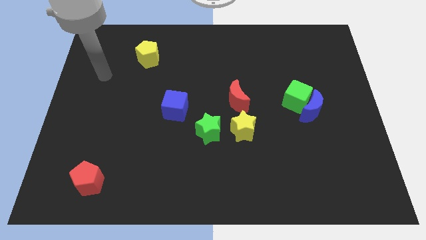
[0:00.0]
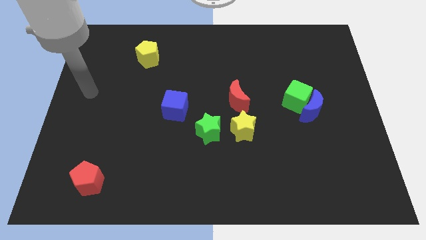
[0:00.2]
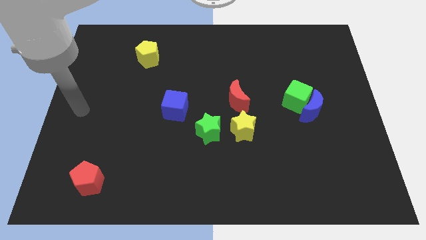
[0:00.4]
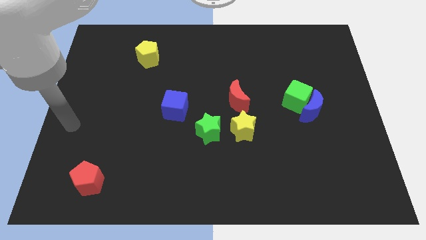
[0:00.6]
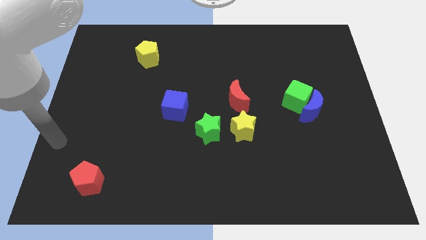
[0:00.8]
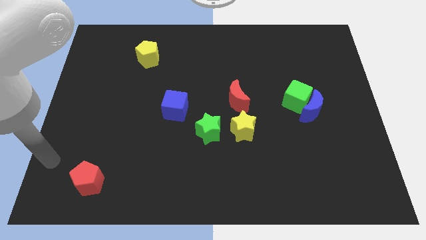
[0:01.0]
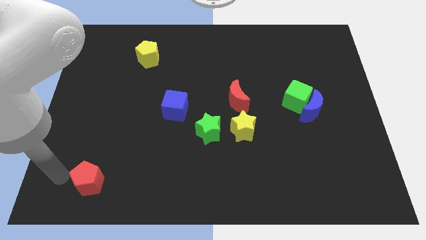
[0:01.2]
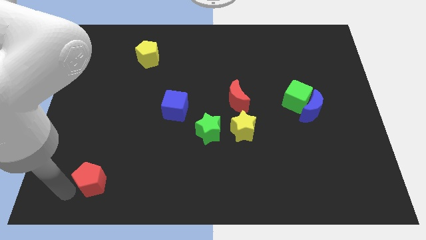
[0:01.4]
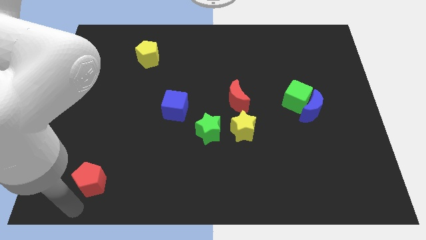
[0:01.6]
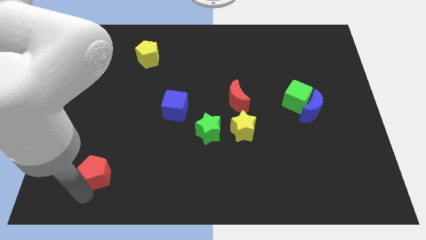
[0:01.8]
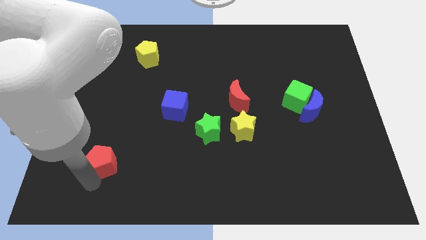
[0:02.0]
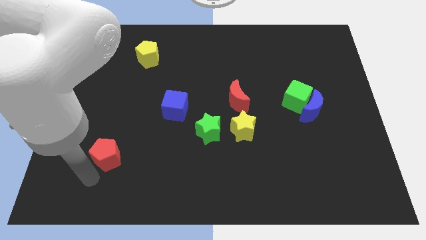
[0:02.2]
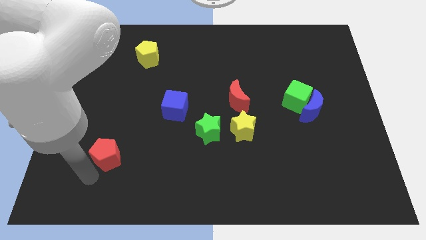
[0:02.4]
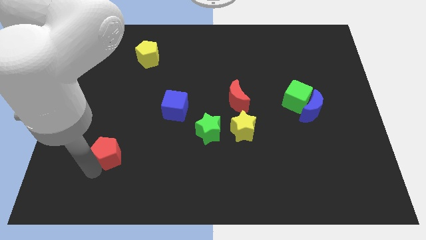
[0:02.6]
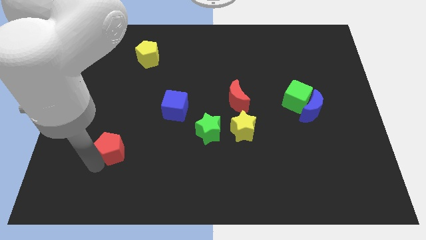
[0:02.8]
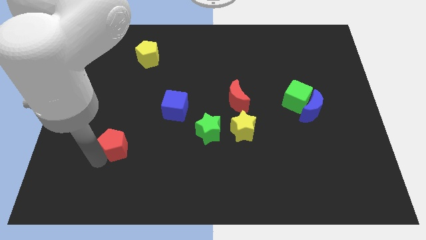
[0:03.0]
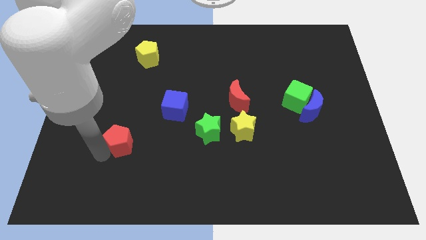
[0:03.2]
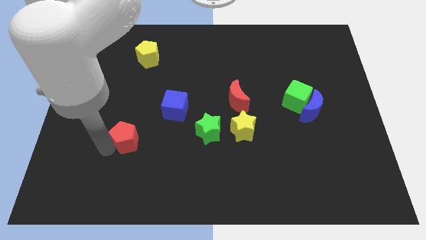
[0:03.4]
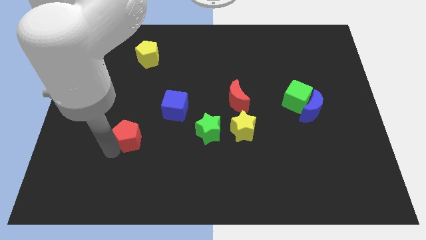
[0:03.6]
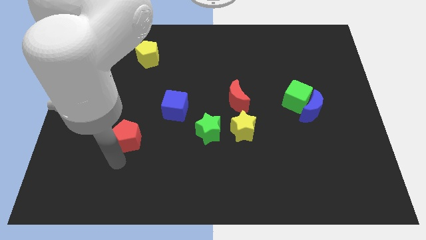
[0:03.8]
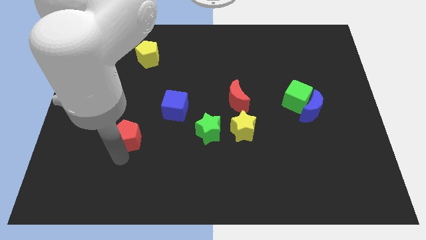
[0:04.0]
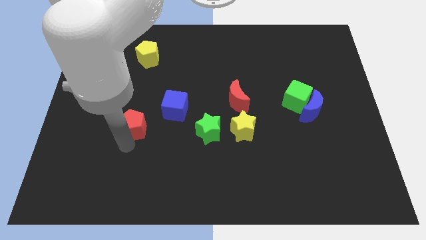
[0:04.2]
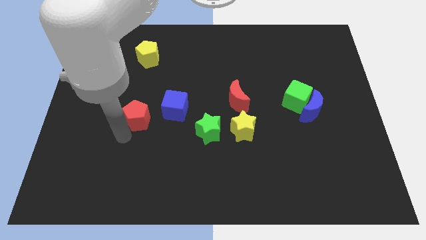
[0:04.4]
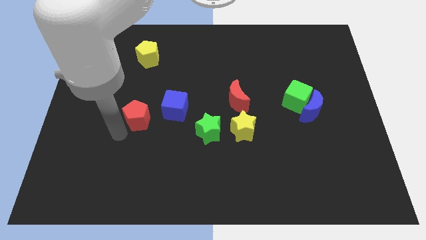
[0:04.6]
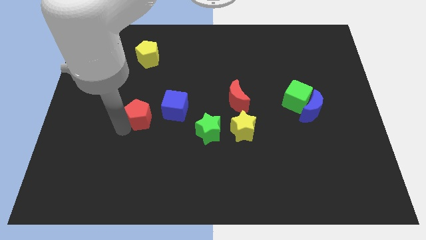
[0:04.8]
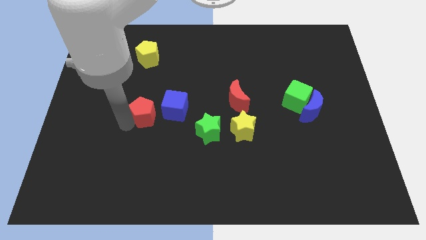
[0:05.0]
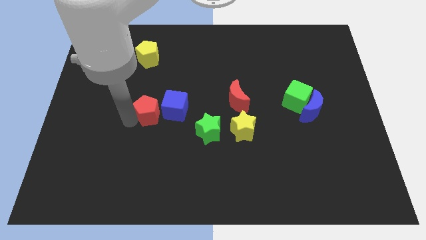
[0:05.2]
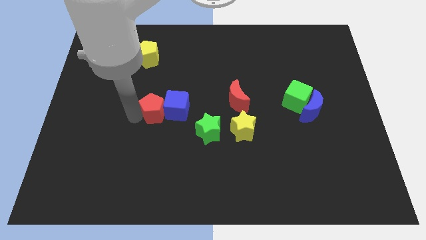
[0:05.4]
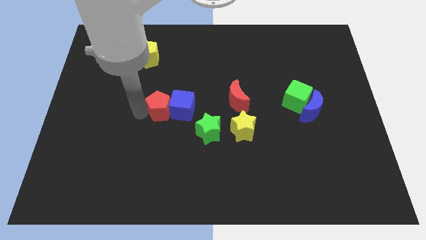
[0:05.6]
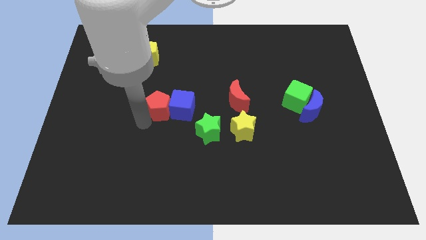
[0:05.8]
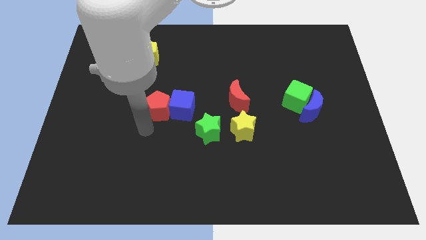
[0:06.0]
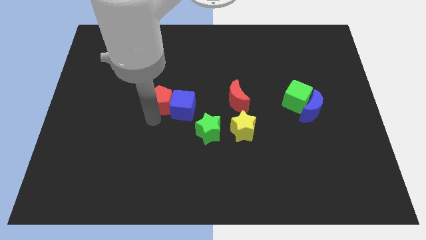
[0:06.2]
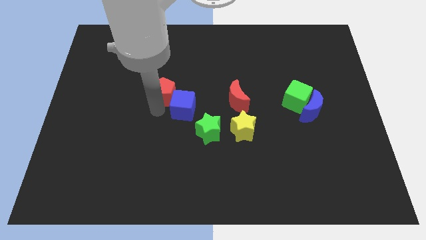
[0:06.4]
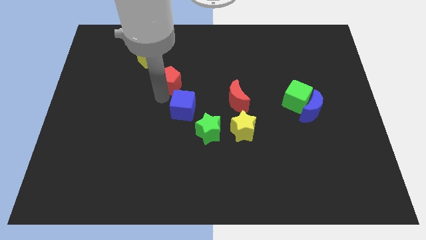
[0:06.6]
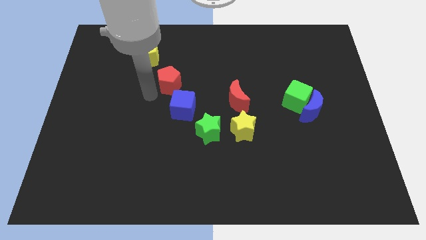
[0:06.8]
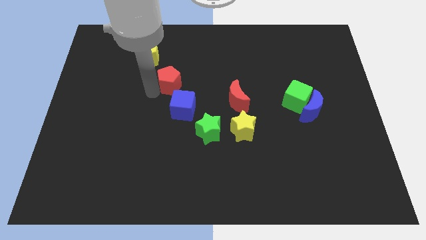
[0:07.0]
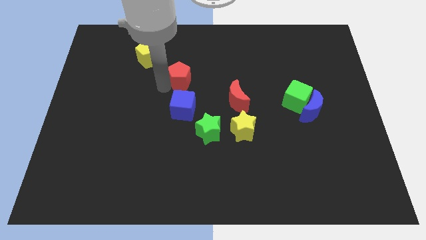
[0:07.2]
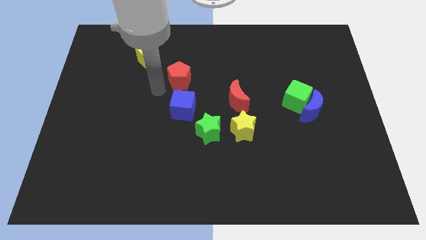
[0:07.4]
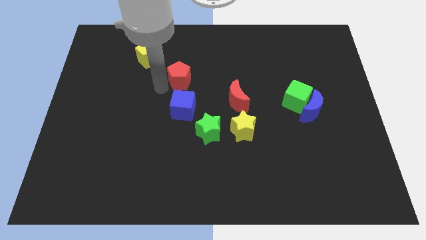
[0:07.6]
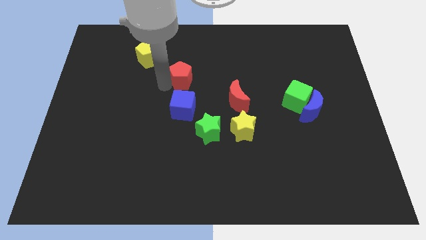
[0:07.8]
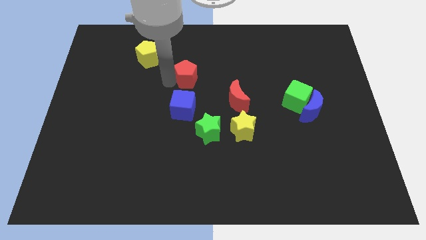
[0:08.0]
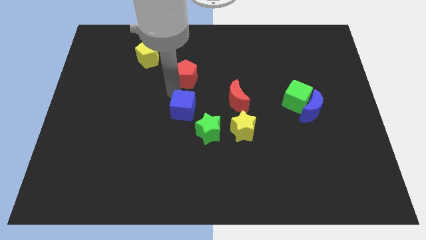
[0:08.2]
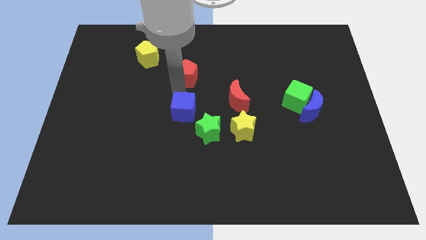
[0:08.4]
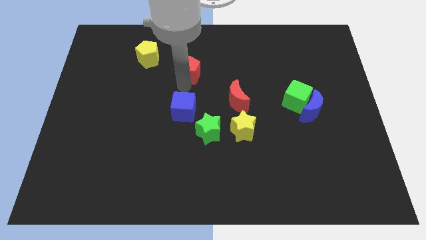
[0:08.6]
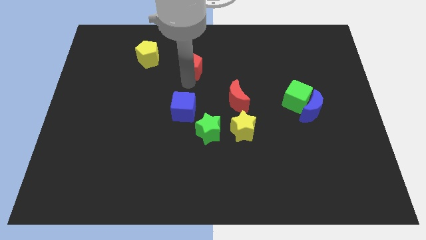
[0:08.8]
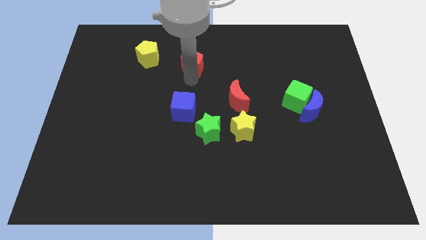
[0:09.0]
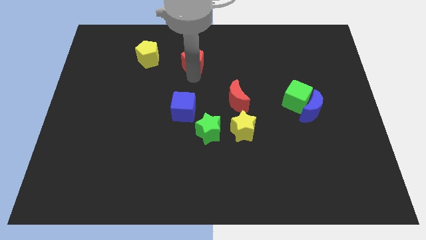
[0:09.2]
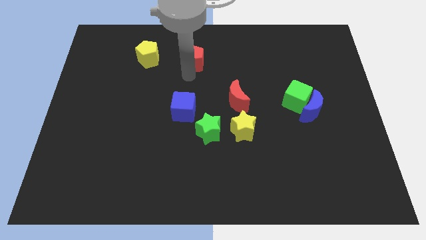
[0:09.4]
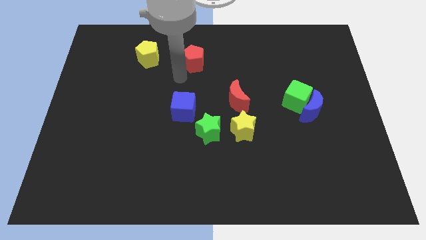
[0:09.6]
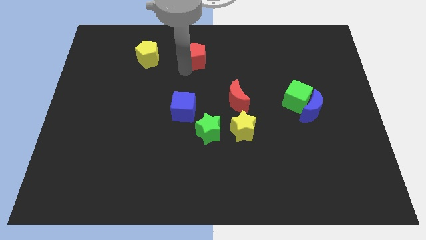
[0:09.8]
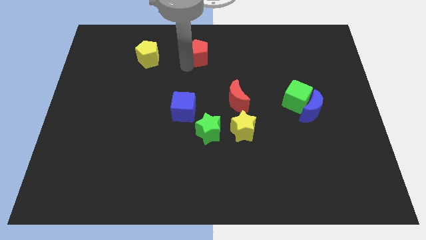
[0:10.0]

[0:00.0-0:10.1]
push the red pentagon to the top

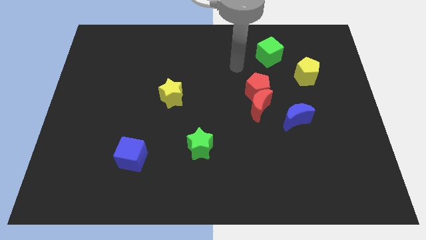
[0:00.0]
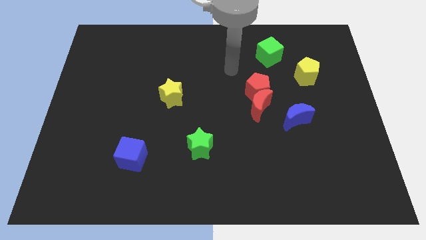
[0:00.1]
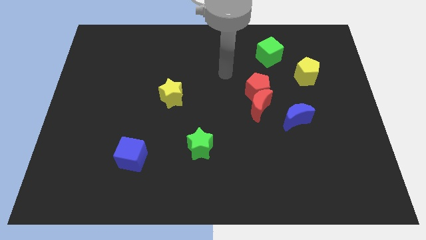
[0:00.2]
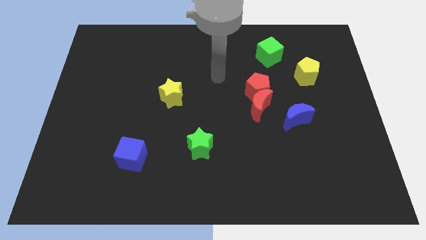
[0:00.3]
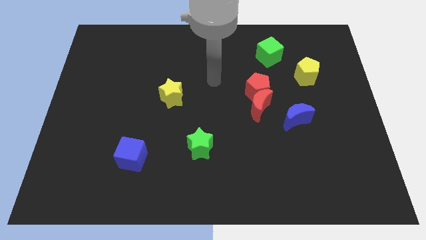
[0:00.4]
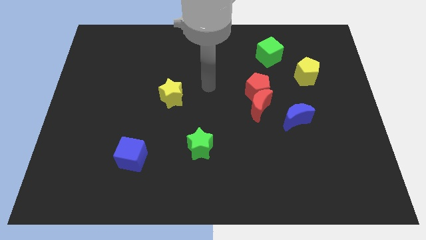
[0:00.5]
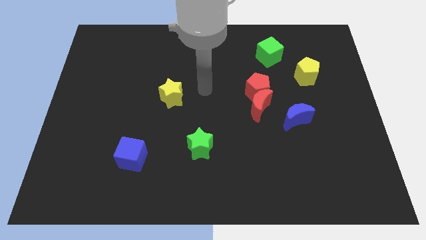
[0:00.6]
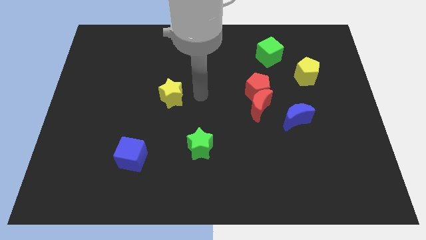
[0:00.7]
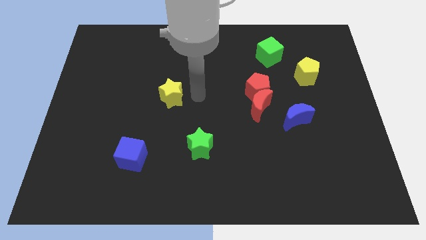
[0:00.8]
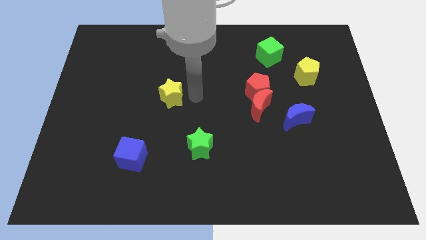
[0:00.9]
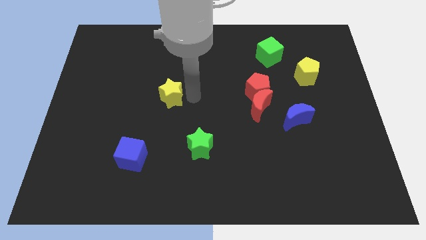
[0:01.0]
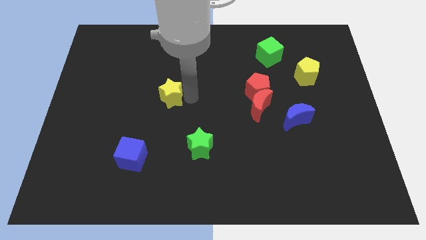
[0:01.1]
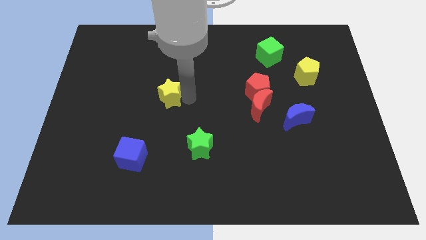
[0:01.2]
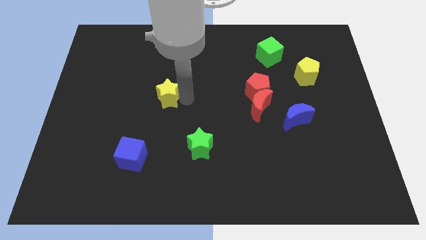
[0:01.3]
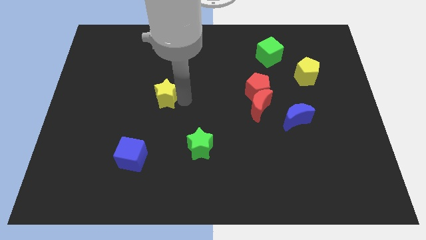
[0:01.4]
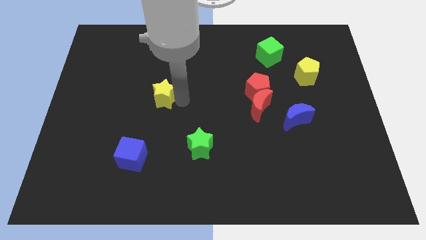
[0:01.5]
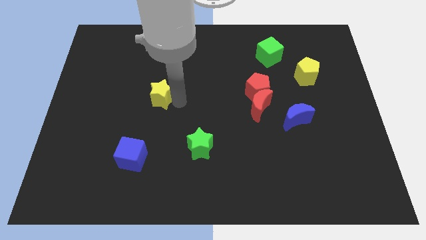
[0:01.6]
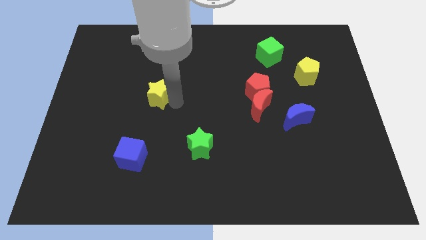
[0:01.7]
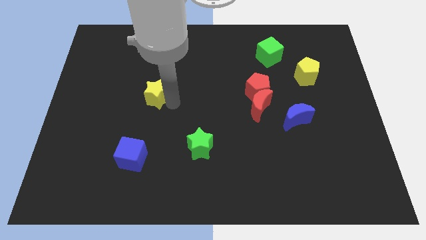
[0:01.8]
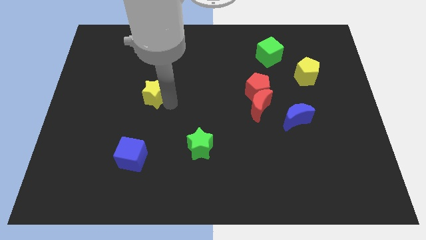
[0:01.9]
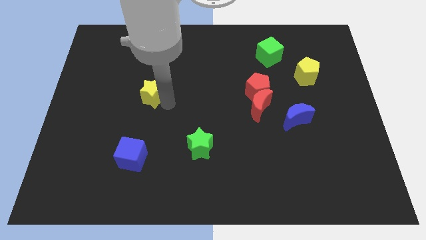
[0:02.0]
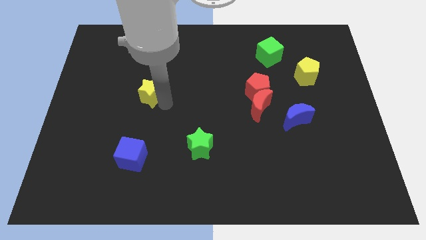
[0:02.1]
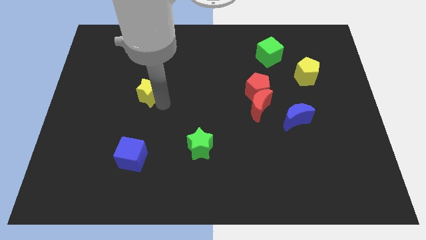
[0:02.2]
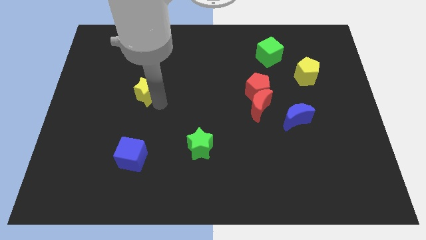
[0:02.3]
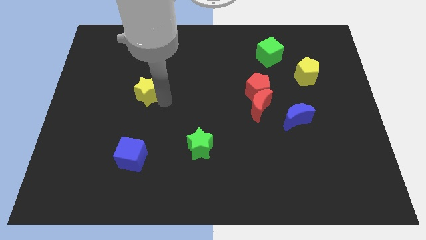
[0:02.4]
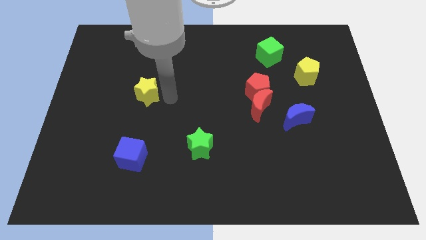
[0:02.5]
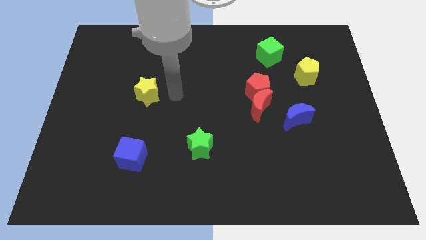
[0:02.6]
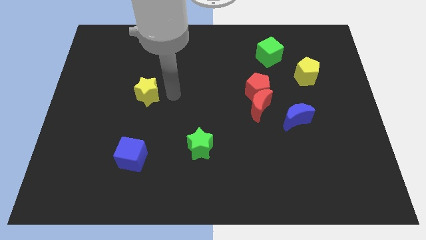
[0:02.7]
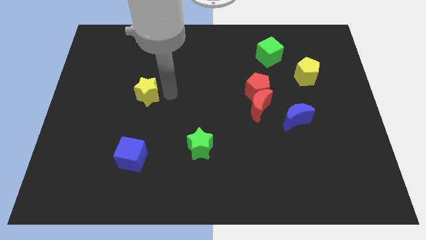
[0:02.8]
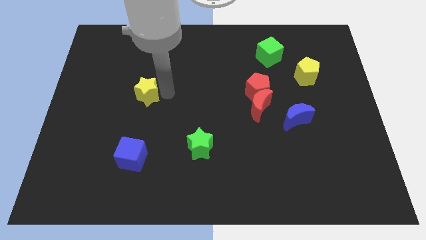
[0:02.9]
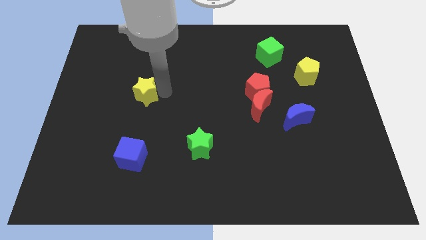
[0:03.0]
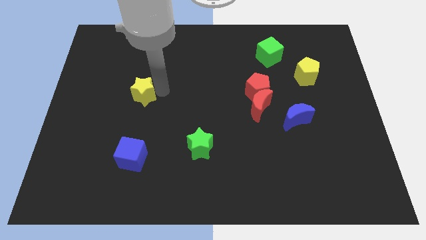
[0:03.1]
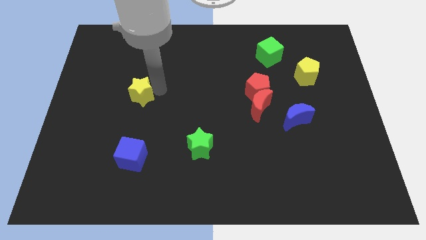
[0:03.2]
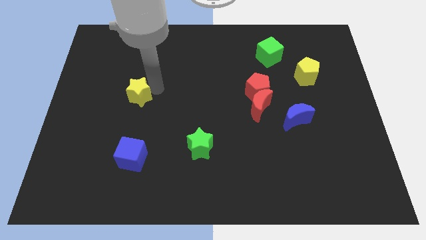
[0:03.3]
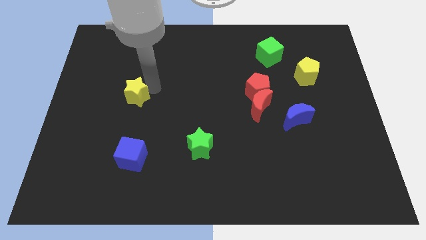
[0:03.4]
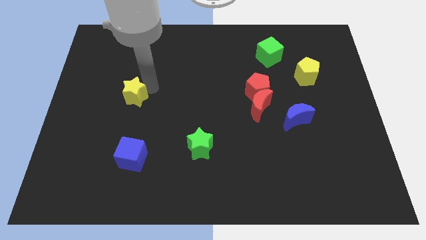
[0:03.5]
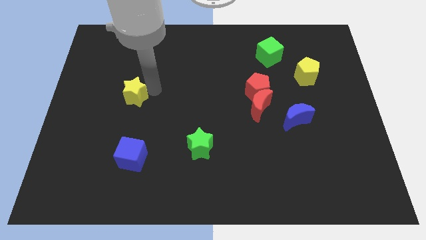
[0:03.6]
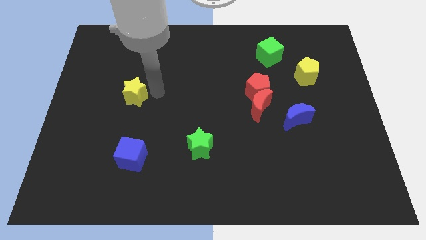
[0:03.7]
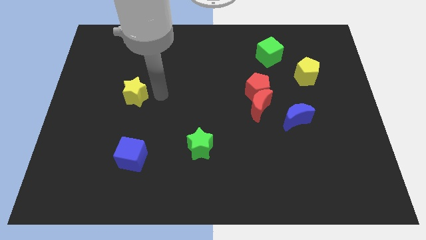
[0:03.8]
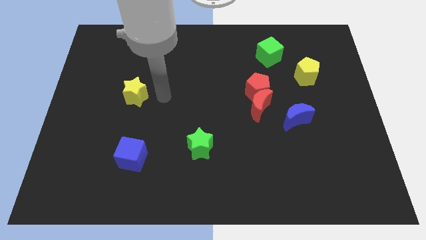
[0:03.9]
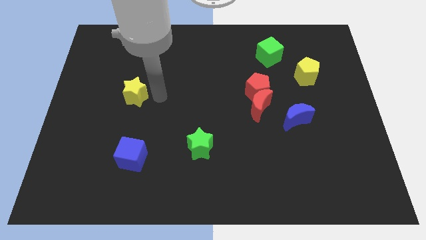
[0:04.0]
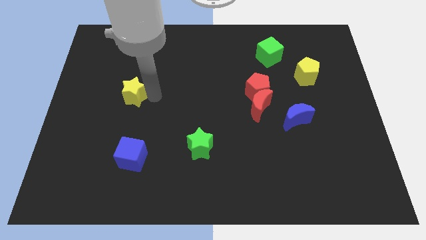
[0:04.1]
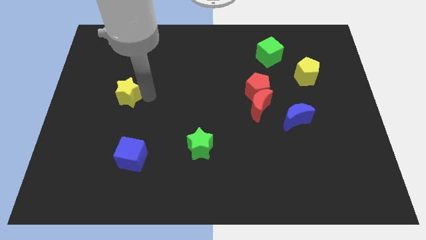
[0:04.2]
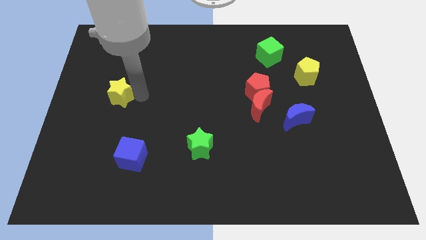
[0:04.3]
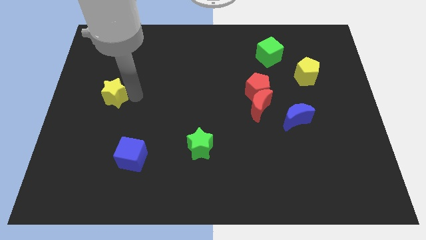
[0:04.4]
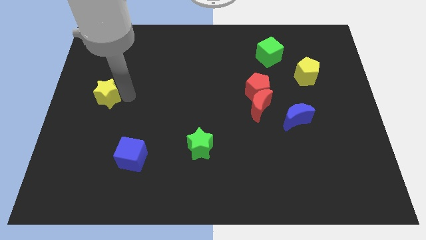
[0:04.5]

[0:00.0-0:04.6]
put the yellow star to the center left
